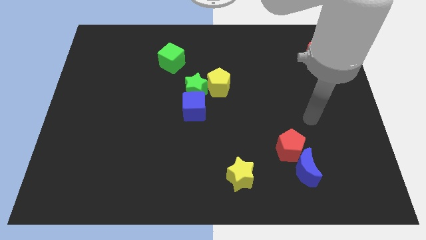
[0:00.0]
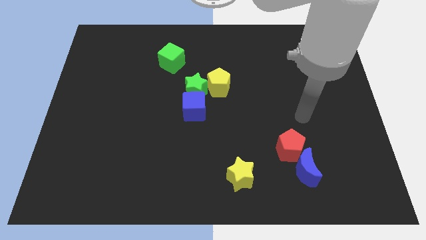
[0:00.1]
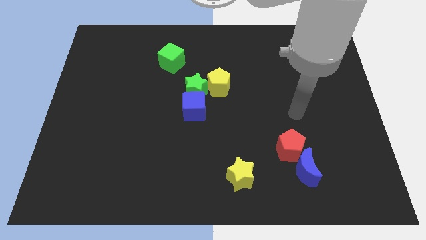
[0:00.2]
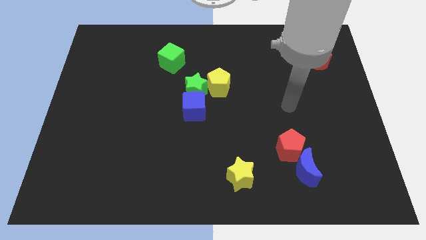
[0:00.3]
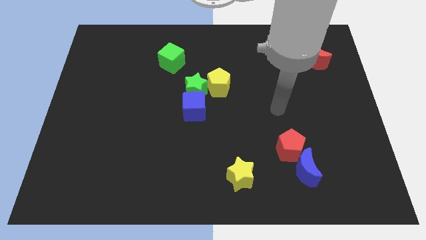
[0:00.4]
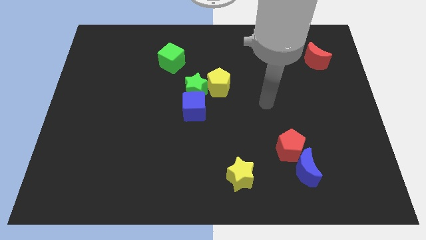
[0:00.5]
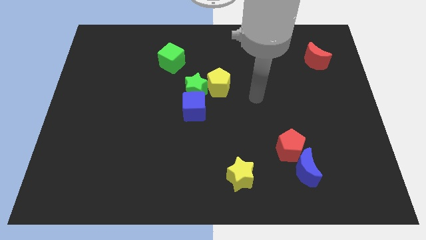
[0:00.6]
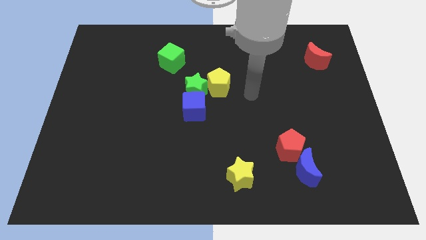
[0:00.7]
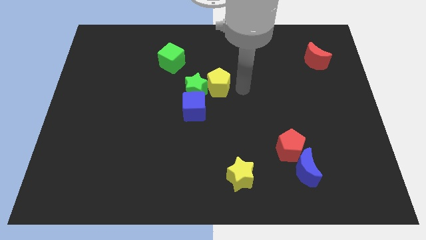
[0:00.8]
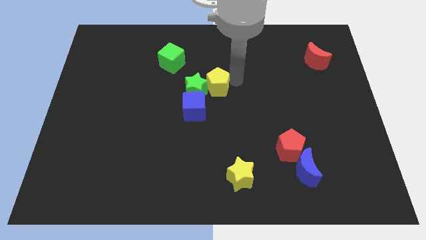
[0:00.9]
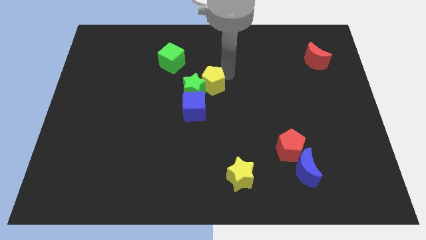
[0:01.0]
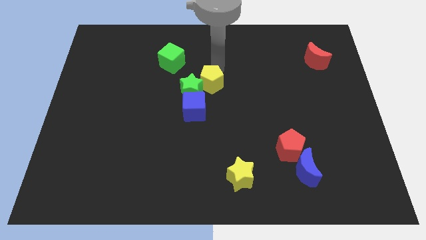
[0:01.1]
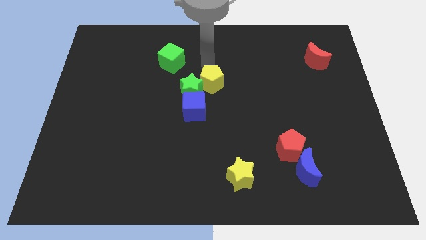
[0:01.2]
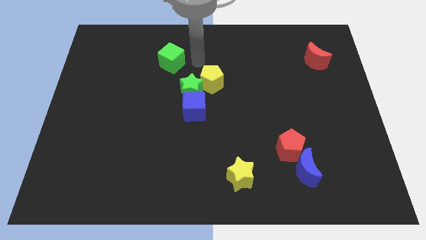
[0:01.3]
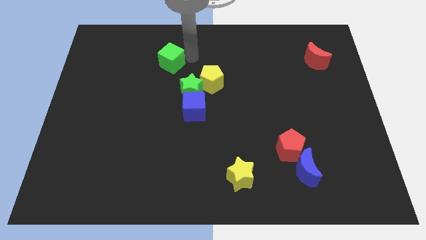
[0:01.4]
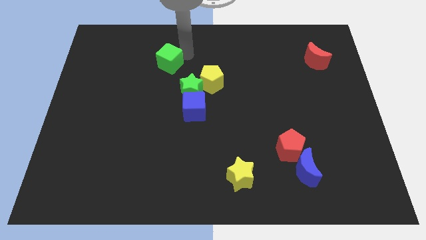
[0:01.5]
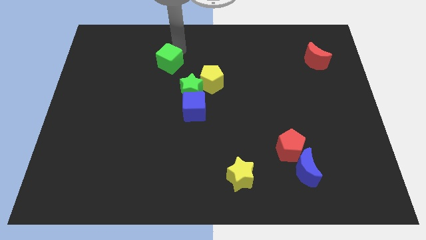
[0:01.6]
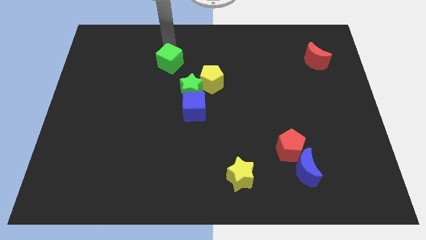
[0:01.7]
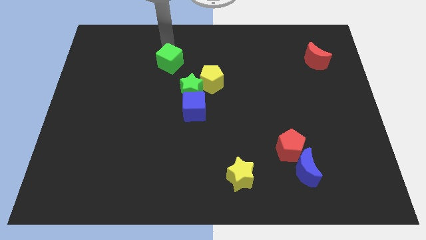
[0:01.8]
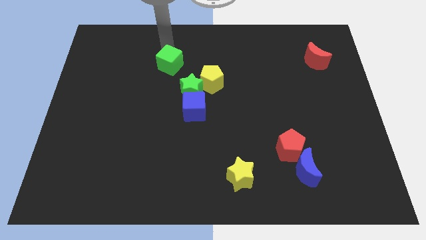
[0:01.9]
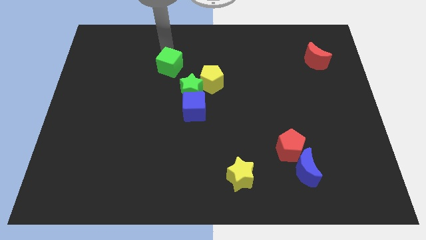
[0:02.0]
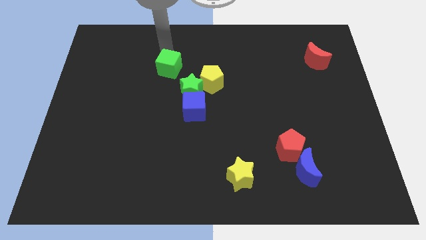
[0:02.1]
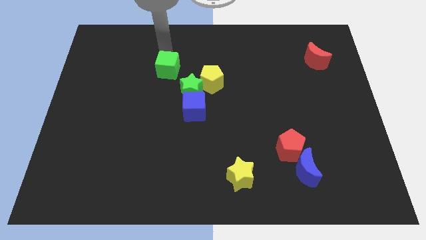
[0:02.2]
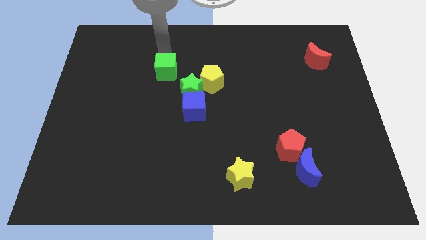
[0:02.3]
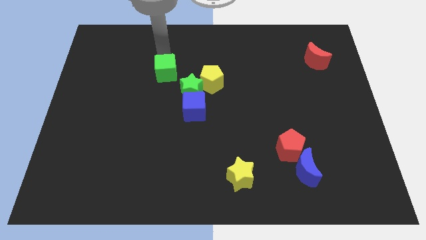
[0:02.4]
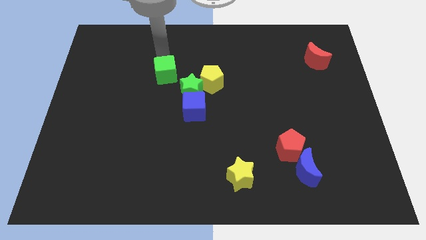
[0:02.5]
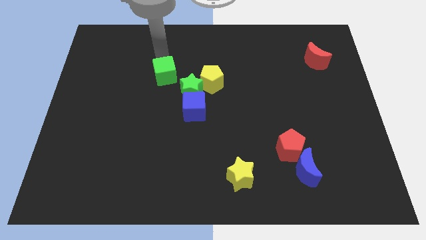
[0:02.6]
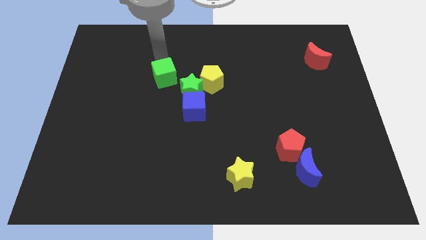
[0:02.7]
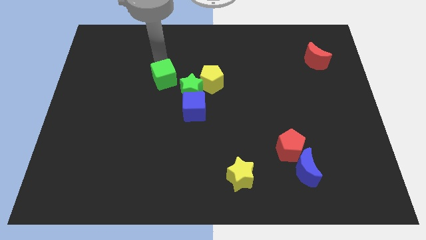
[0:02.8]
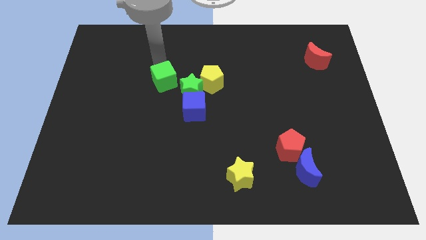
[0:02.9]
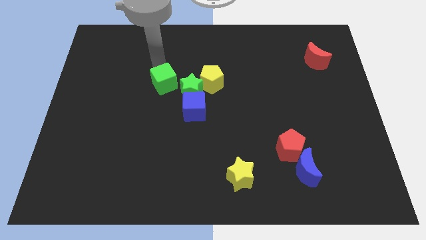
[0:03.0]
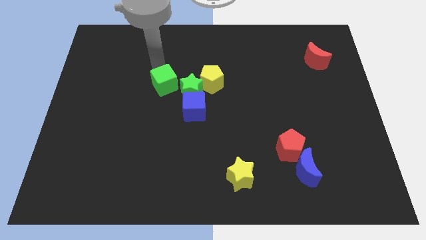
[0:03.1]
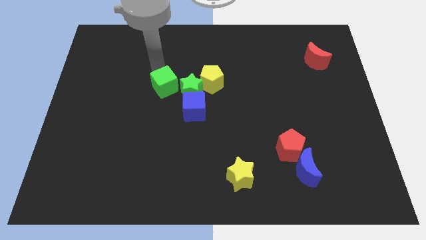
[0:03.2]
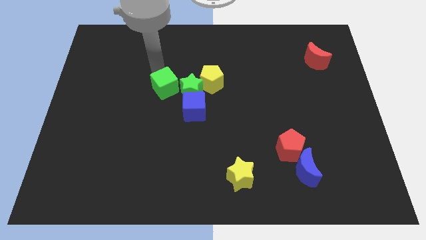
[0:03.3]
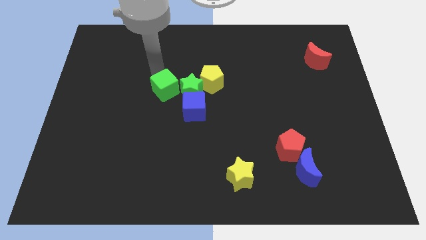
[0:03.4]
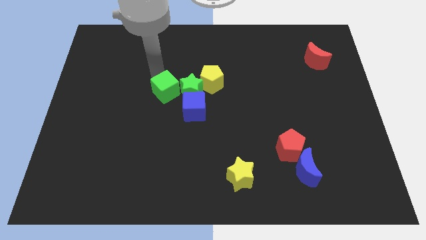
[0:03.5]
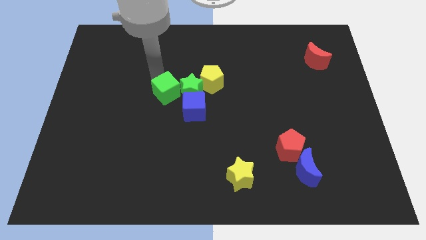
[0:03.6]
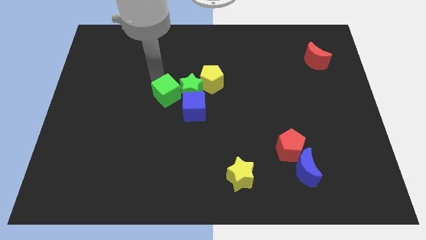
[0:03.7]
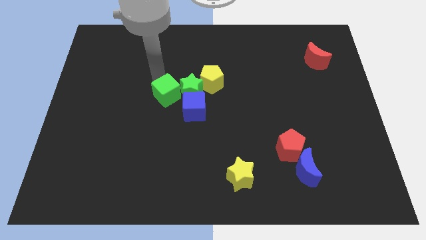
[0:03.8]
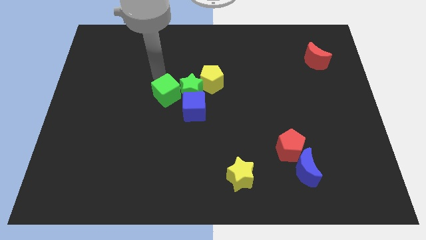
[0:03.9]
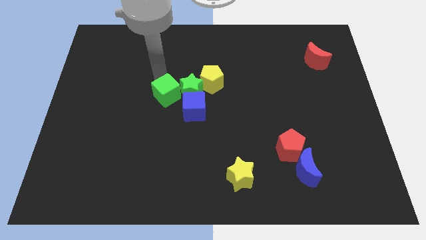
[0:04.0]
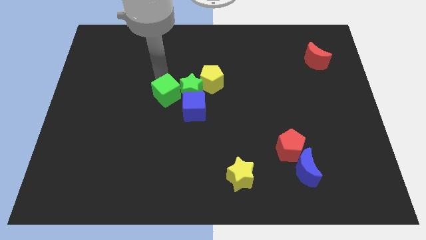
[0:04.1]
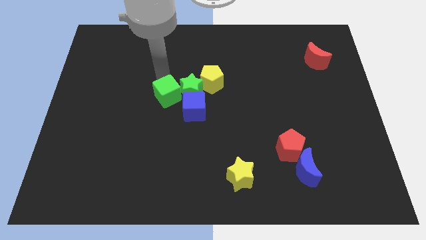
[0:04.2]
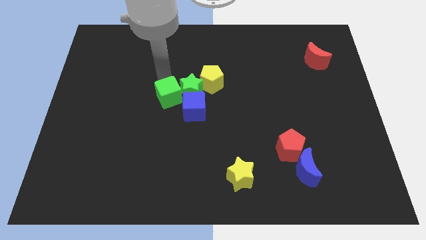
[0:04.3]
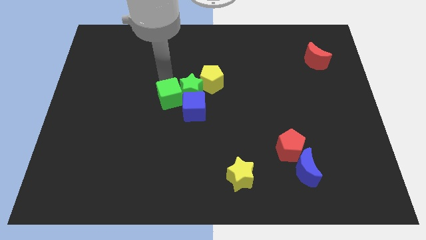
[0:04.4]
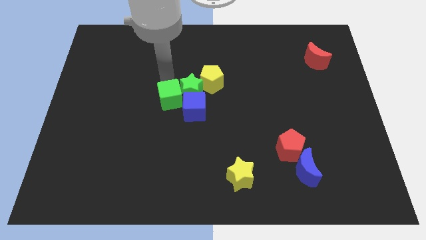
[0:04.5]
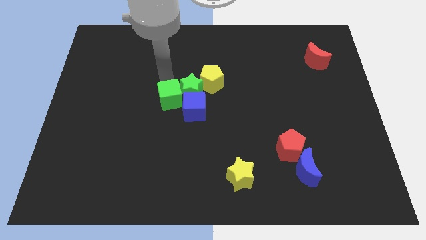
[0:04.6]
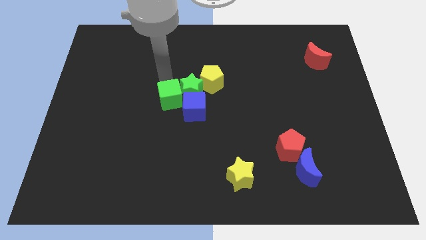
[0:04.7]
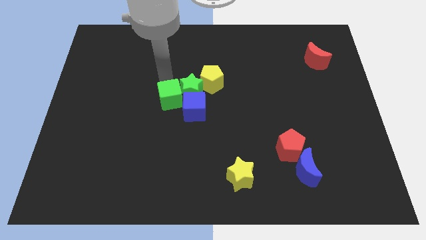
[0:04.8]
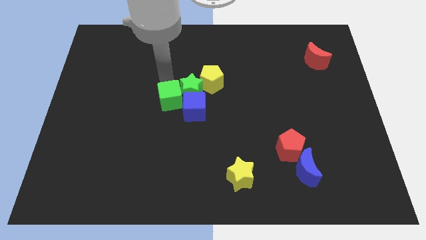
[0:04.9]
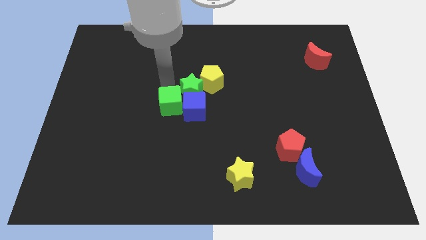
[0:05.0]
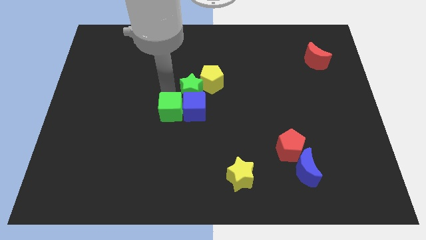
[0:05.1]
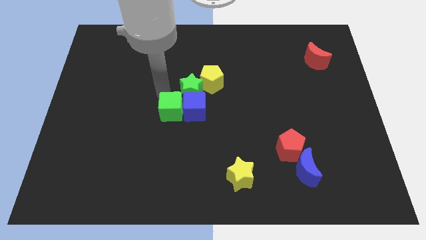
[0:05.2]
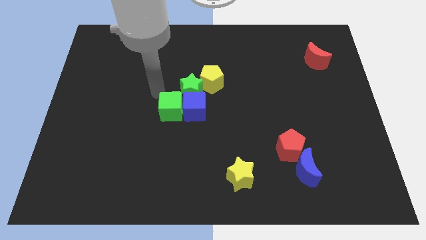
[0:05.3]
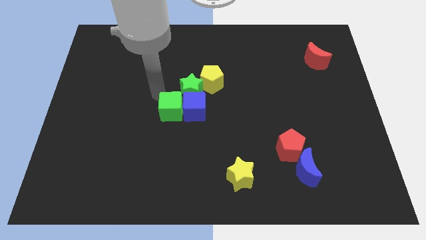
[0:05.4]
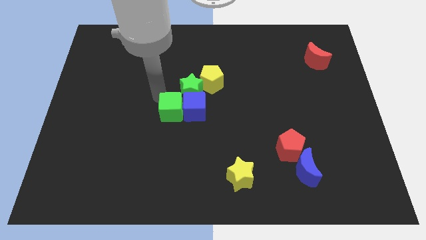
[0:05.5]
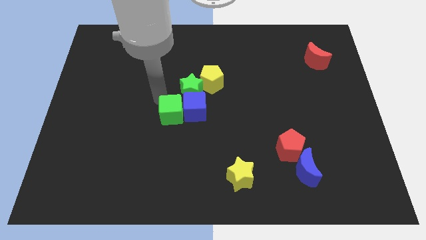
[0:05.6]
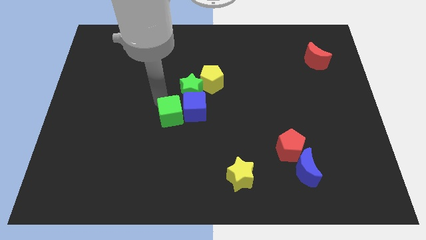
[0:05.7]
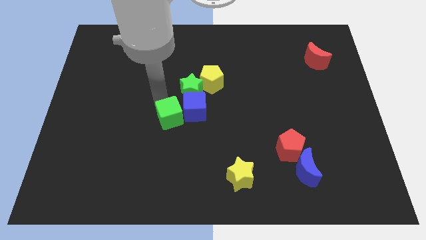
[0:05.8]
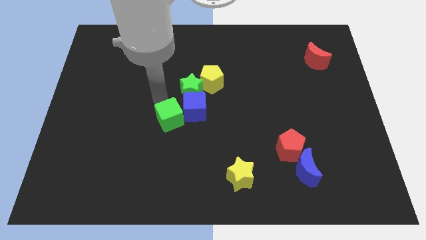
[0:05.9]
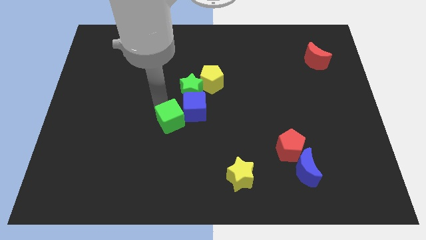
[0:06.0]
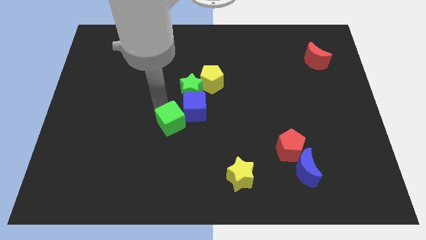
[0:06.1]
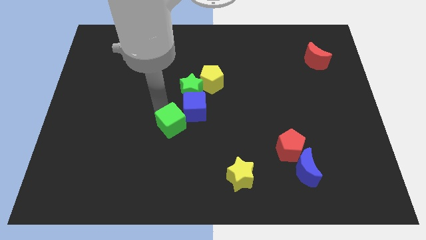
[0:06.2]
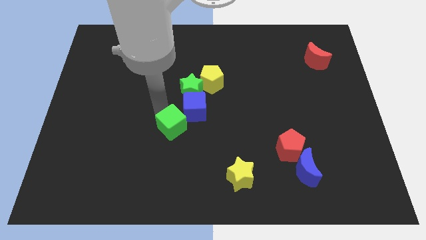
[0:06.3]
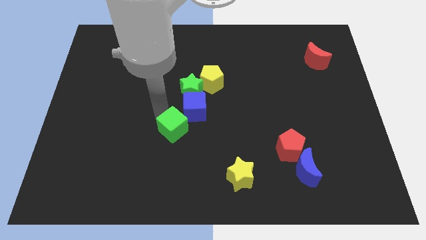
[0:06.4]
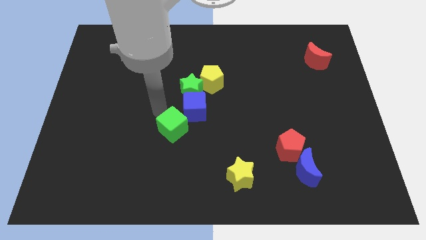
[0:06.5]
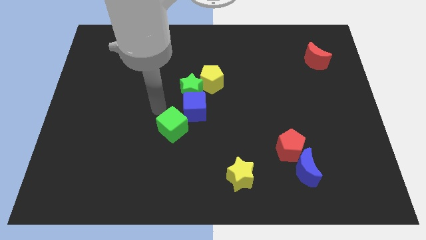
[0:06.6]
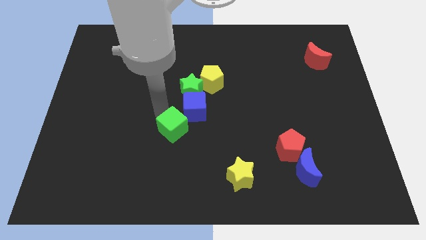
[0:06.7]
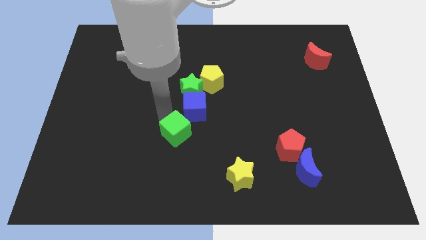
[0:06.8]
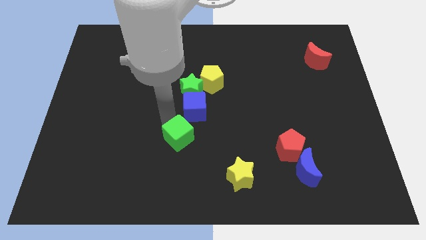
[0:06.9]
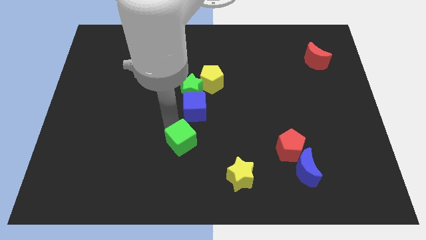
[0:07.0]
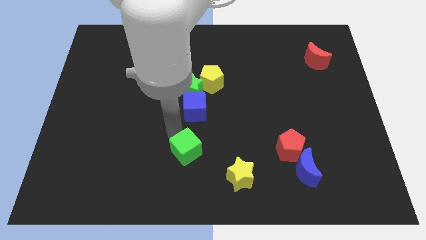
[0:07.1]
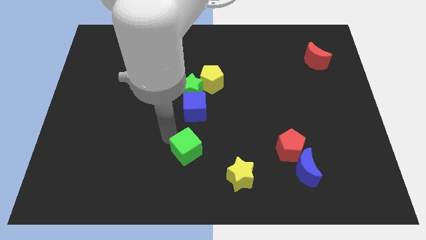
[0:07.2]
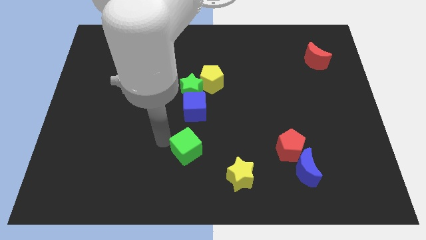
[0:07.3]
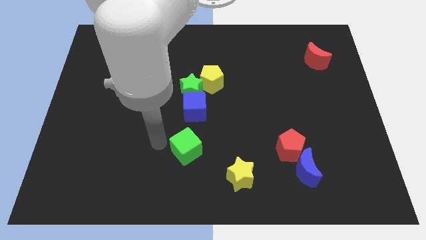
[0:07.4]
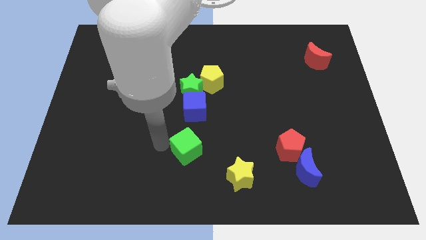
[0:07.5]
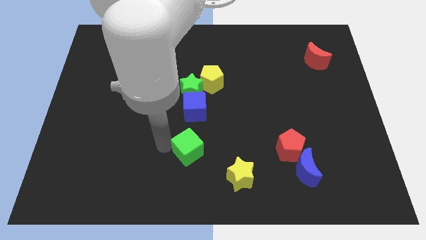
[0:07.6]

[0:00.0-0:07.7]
move the green cube diagonally up and to the left of the yellow star

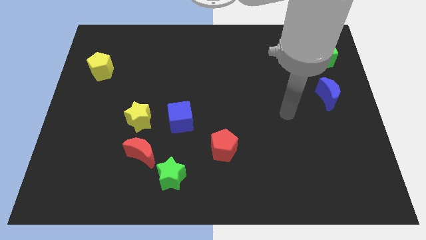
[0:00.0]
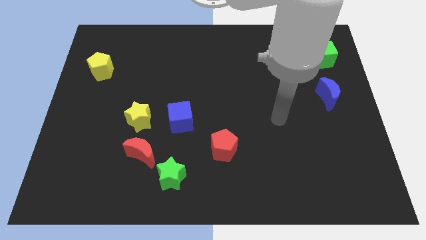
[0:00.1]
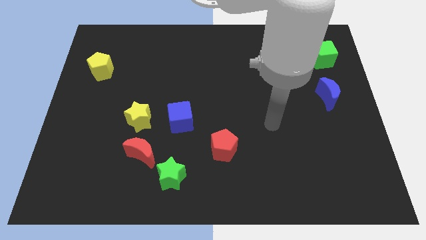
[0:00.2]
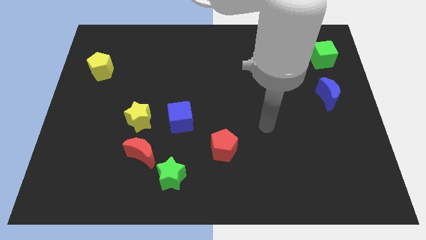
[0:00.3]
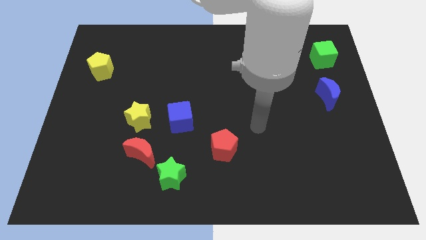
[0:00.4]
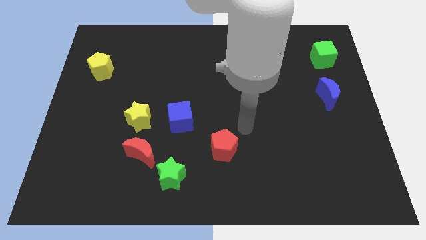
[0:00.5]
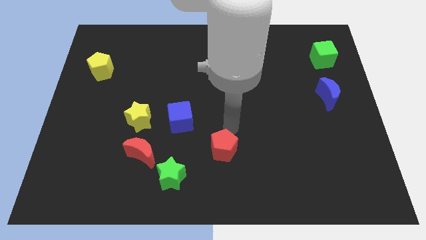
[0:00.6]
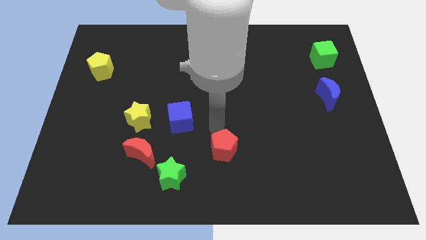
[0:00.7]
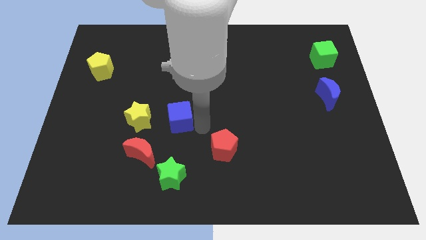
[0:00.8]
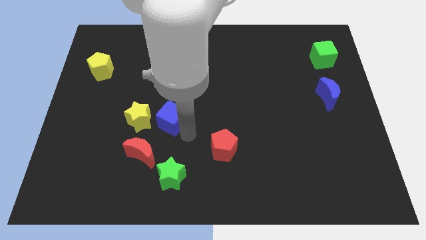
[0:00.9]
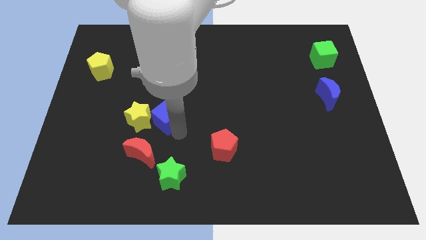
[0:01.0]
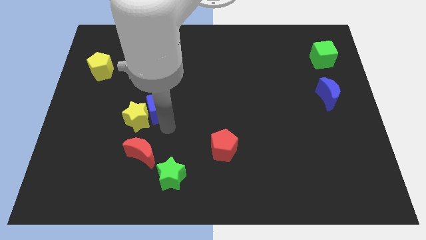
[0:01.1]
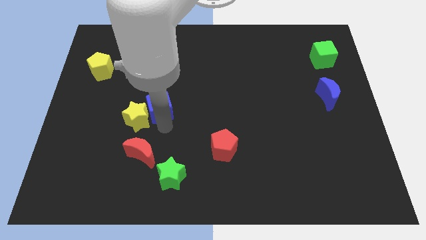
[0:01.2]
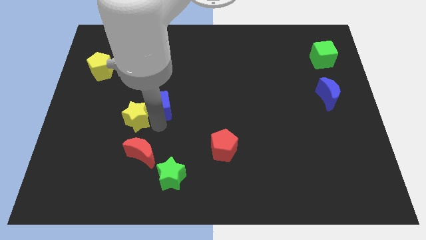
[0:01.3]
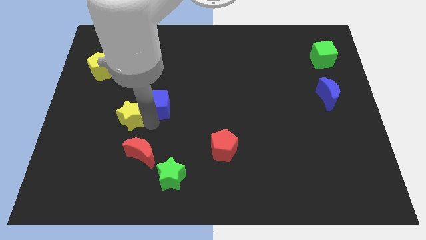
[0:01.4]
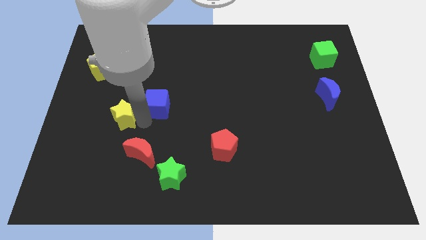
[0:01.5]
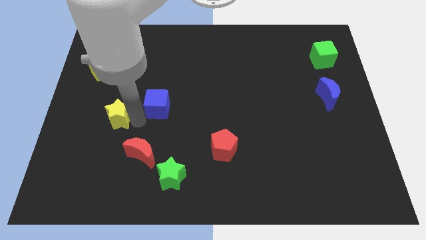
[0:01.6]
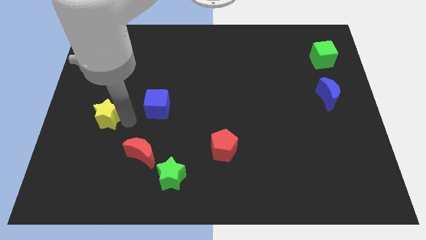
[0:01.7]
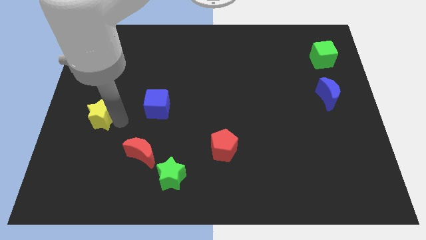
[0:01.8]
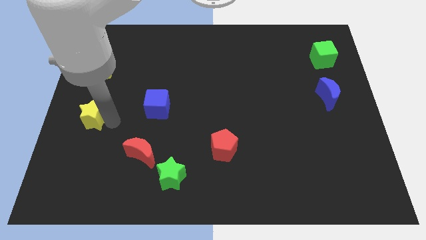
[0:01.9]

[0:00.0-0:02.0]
slide the yellow star below the yellow pentagon
